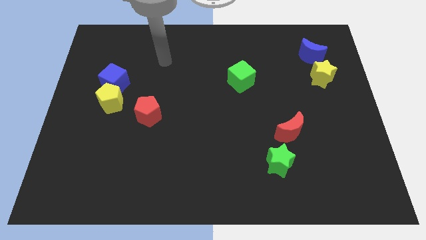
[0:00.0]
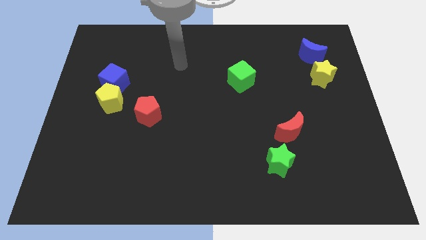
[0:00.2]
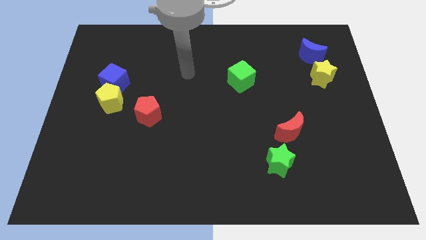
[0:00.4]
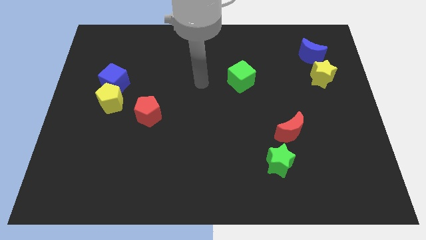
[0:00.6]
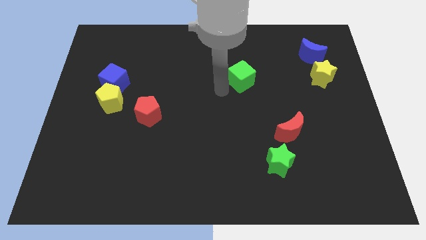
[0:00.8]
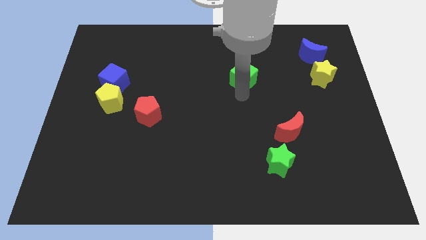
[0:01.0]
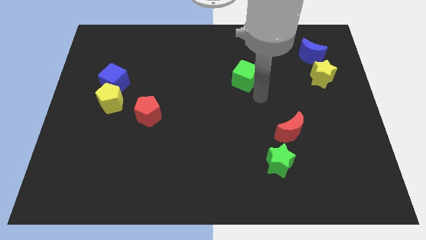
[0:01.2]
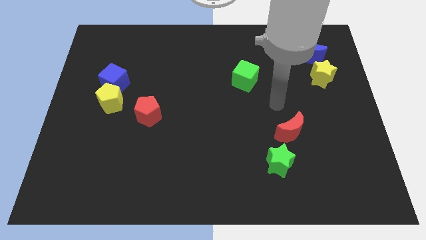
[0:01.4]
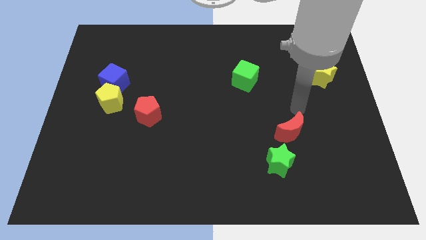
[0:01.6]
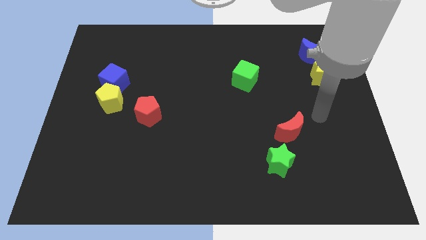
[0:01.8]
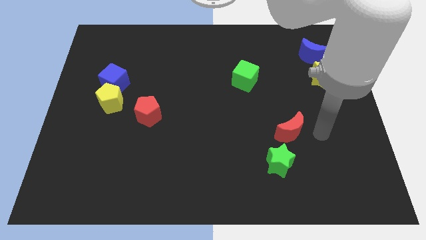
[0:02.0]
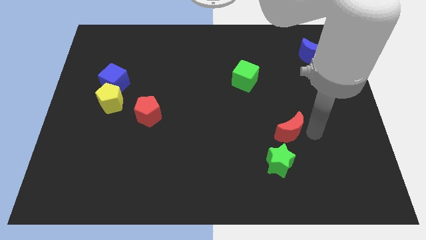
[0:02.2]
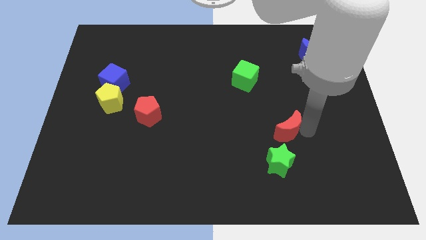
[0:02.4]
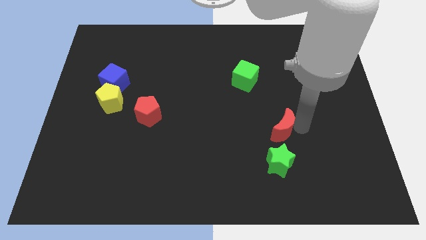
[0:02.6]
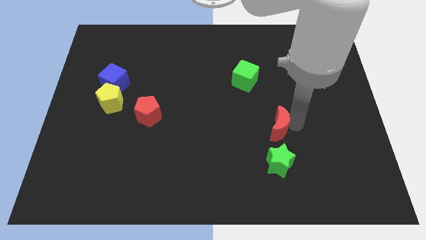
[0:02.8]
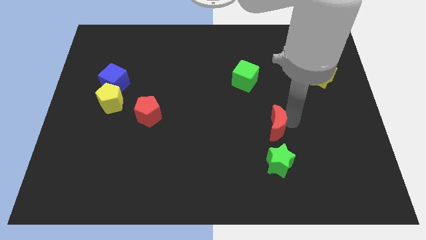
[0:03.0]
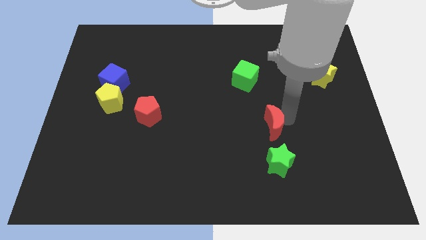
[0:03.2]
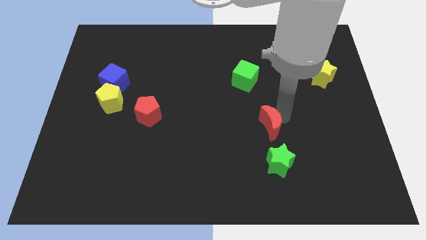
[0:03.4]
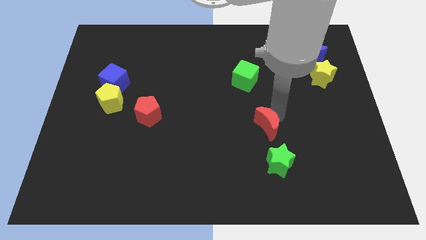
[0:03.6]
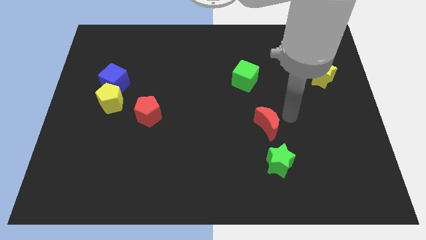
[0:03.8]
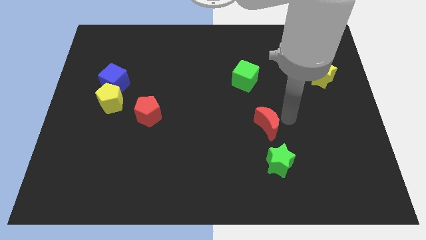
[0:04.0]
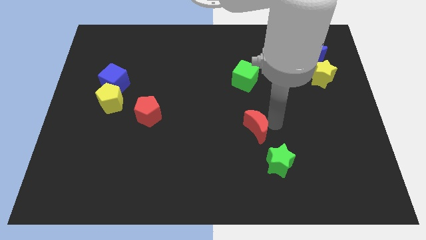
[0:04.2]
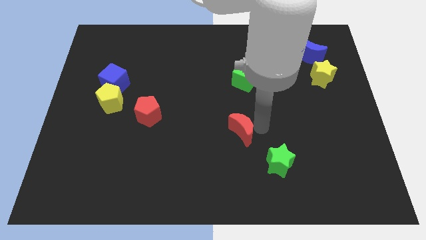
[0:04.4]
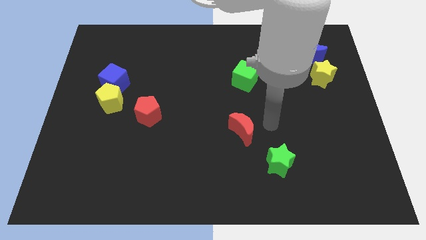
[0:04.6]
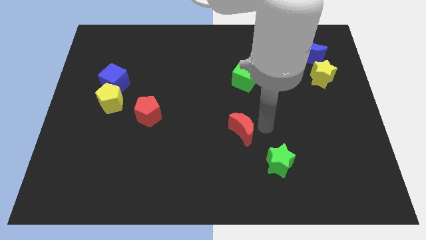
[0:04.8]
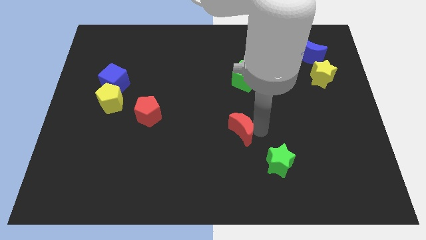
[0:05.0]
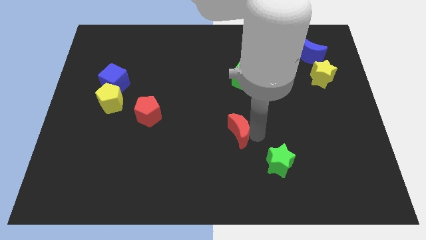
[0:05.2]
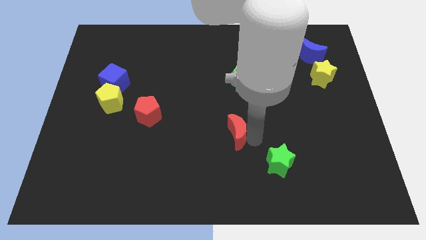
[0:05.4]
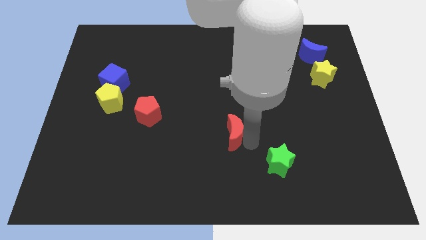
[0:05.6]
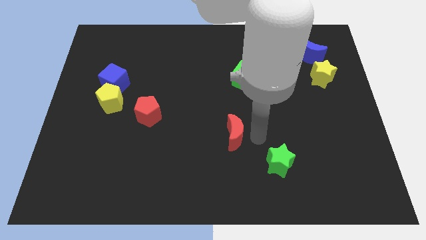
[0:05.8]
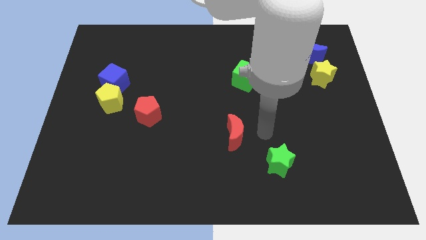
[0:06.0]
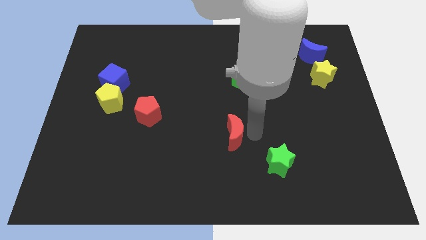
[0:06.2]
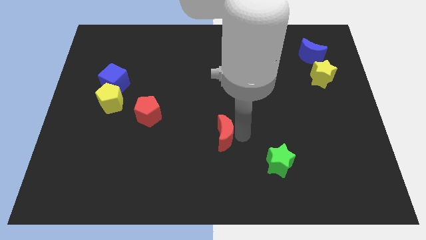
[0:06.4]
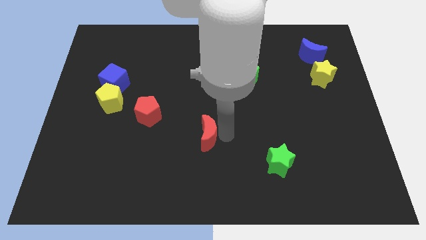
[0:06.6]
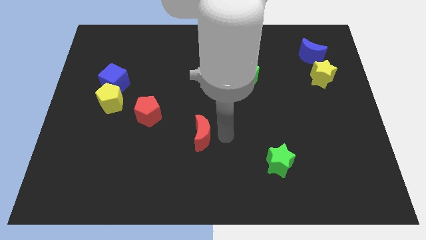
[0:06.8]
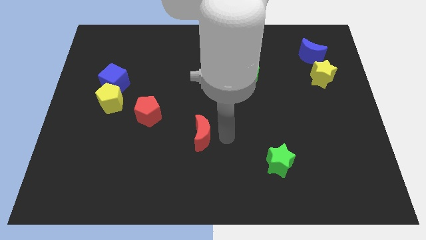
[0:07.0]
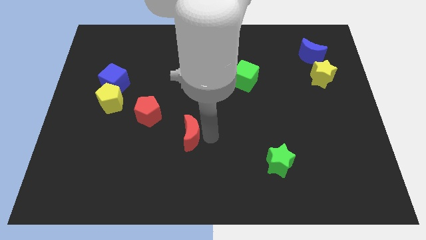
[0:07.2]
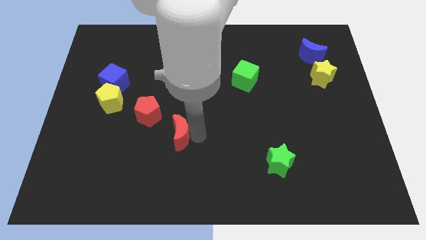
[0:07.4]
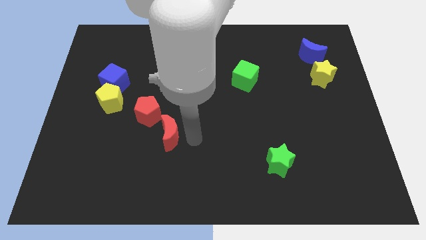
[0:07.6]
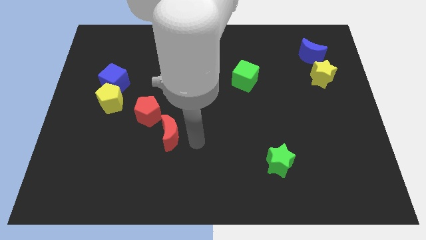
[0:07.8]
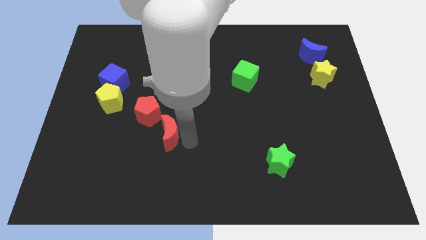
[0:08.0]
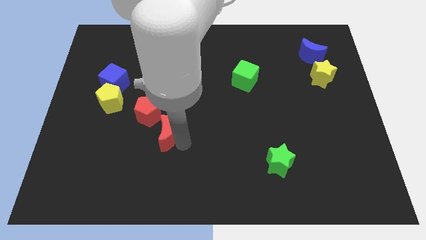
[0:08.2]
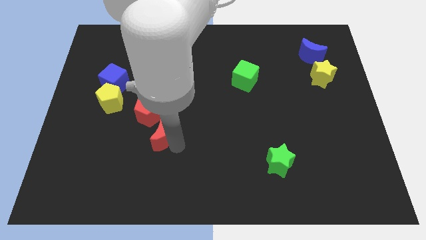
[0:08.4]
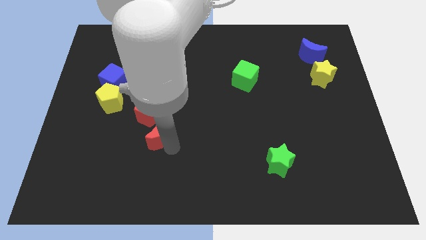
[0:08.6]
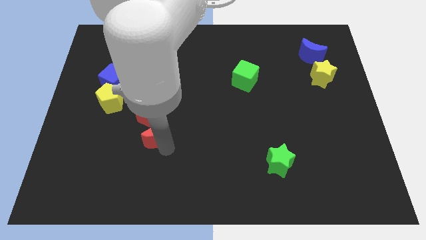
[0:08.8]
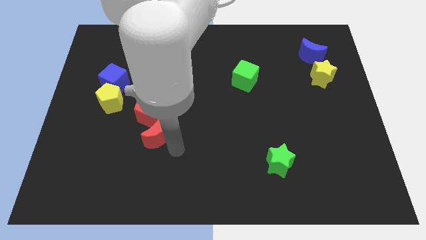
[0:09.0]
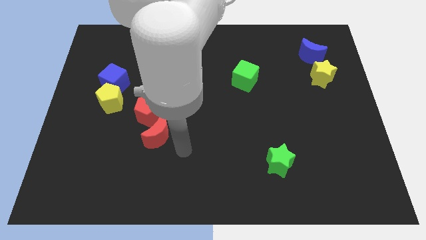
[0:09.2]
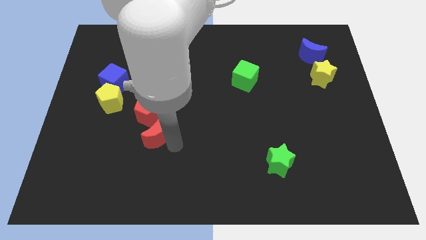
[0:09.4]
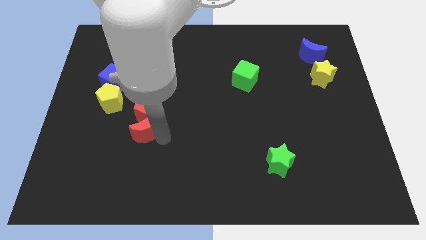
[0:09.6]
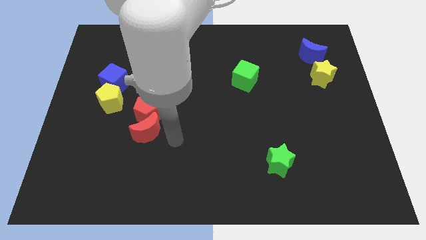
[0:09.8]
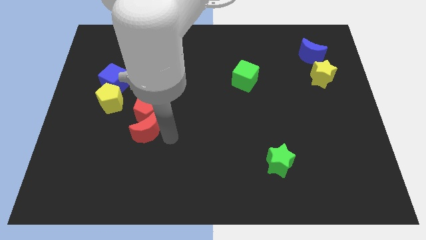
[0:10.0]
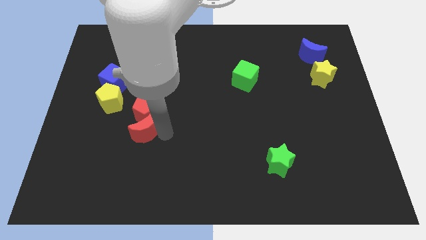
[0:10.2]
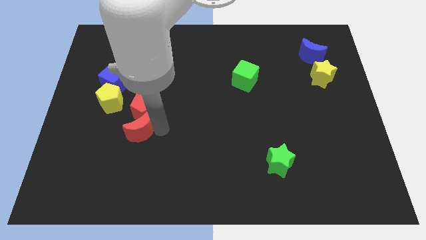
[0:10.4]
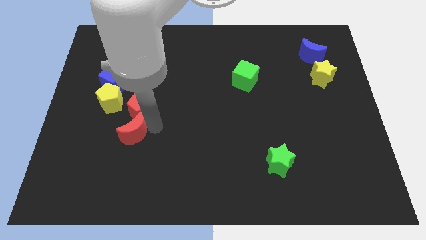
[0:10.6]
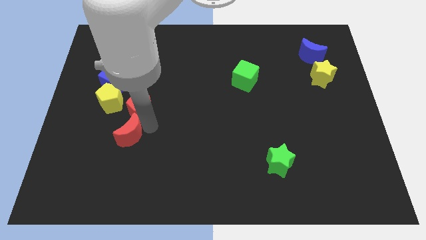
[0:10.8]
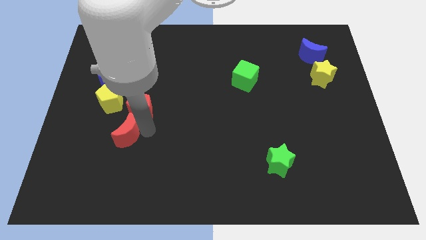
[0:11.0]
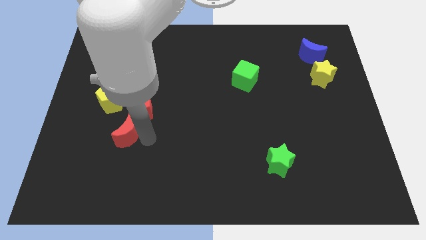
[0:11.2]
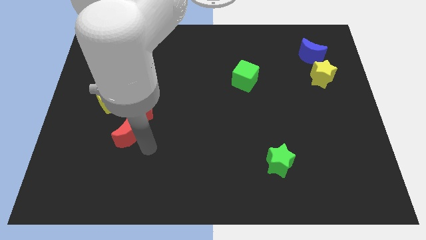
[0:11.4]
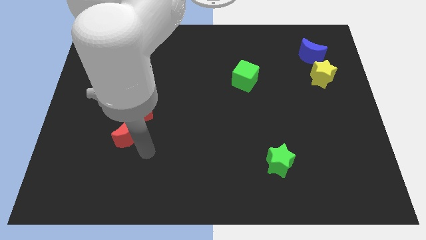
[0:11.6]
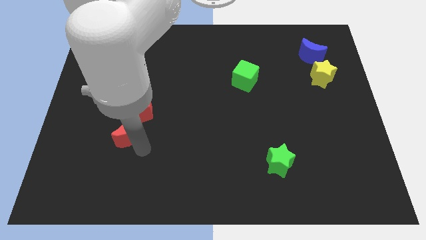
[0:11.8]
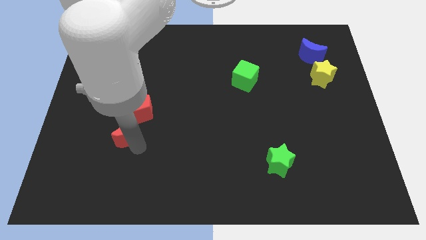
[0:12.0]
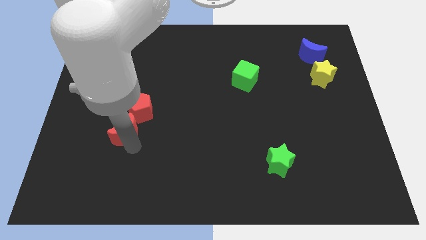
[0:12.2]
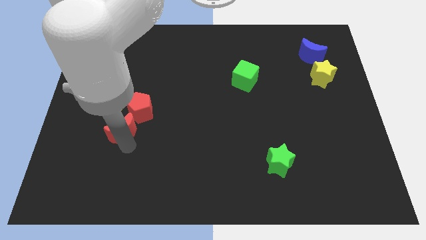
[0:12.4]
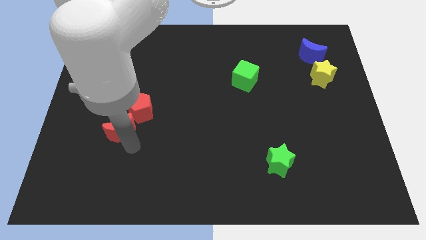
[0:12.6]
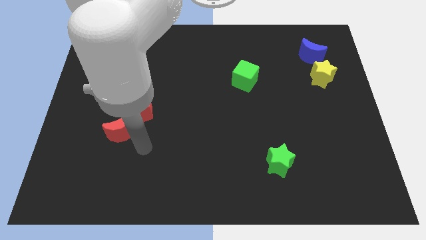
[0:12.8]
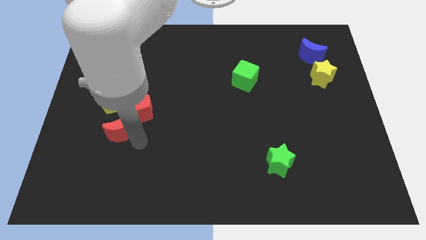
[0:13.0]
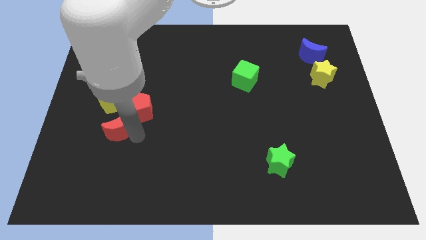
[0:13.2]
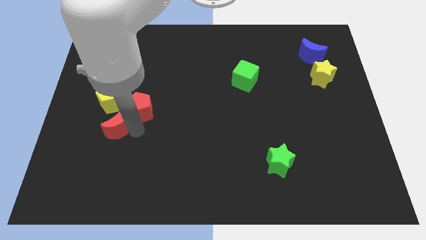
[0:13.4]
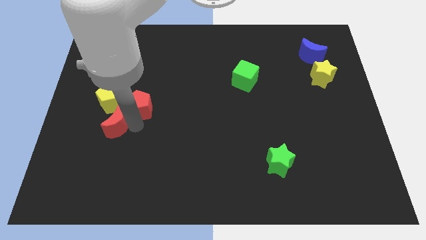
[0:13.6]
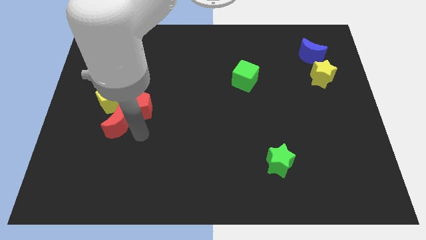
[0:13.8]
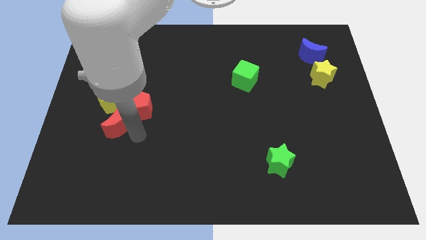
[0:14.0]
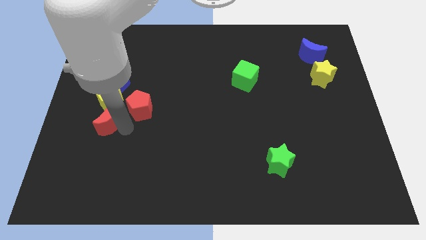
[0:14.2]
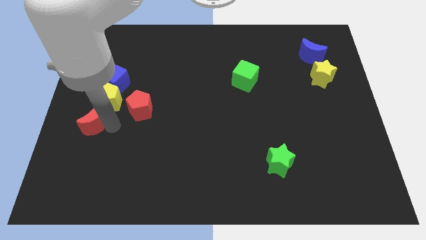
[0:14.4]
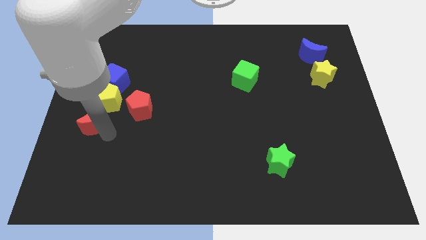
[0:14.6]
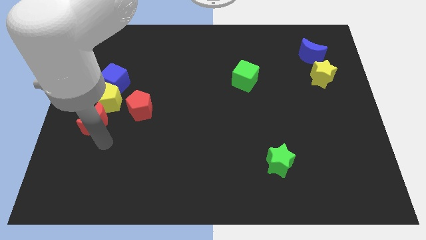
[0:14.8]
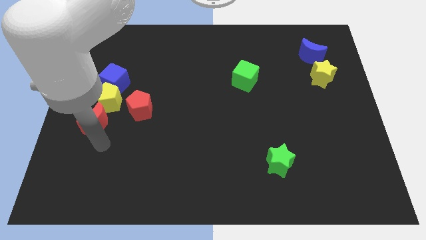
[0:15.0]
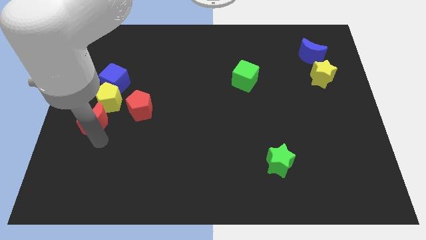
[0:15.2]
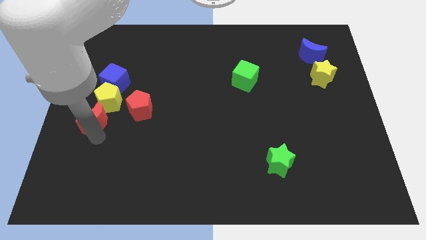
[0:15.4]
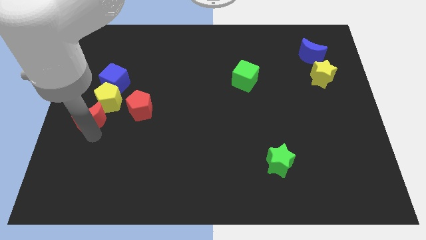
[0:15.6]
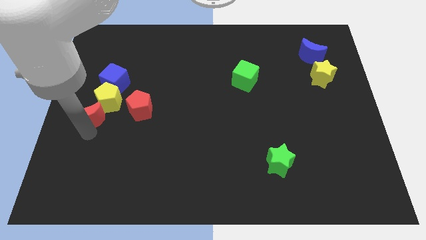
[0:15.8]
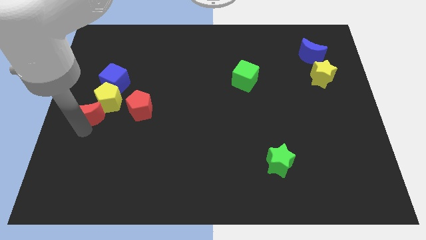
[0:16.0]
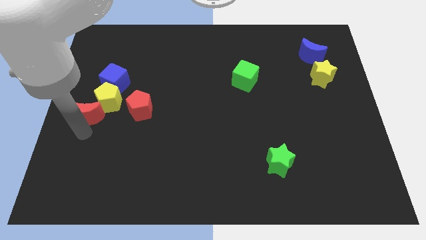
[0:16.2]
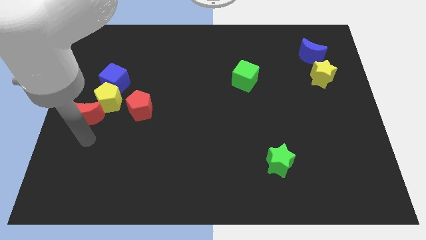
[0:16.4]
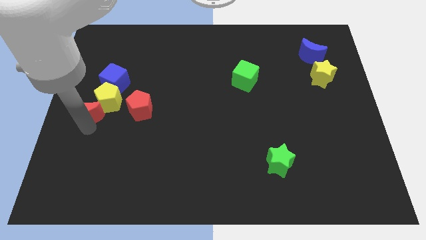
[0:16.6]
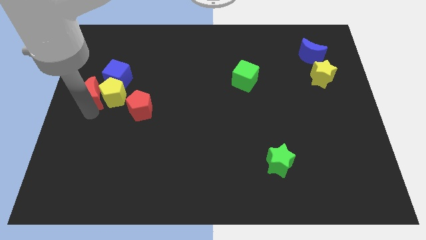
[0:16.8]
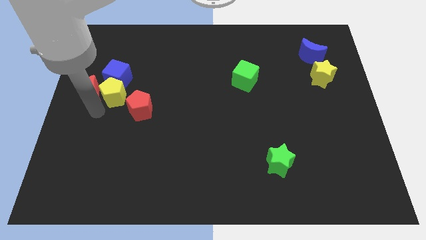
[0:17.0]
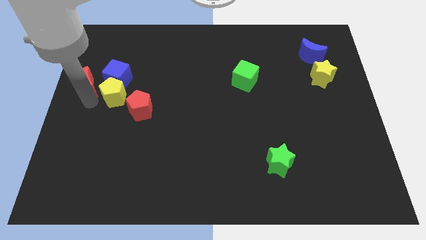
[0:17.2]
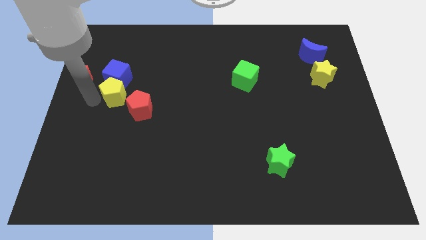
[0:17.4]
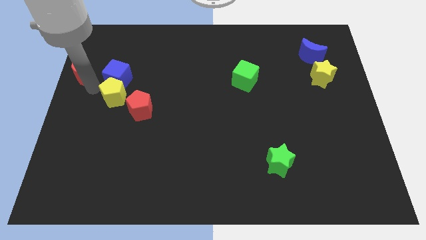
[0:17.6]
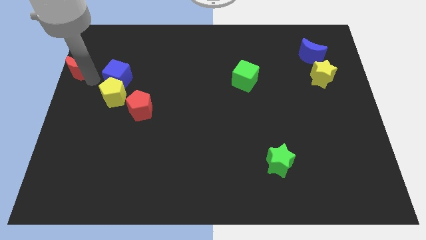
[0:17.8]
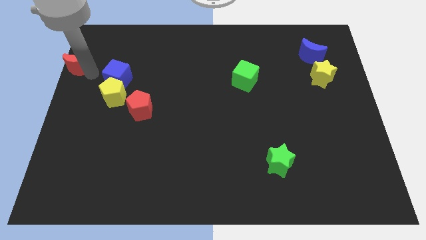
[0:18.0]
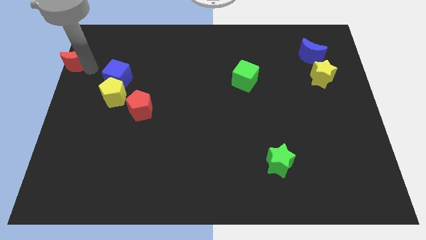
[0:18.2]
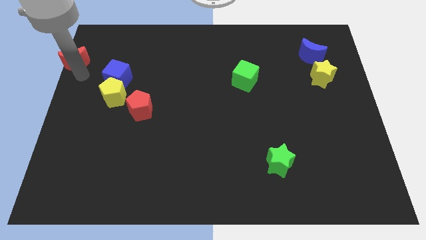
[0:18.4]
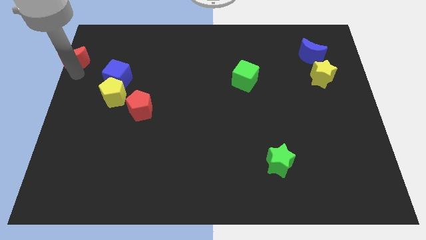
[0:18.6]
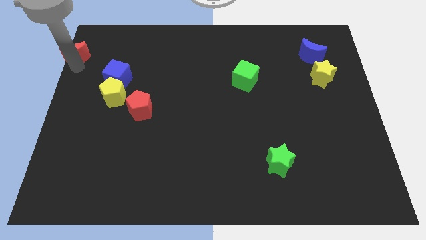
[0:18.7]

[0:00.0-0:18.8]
push the red moon to the upper left corner
